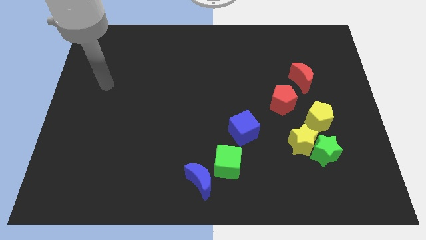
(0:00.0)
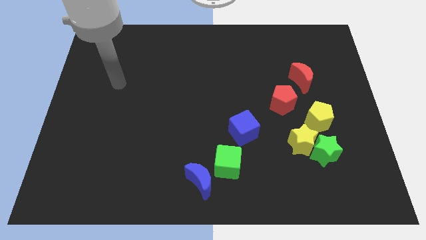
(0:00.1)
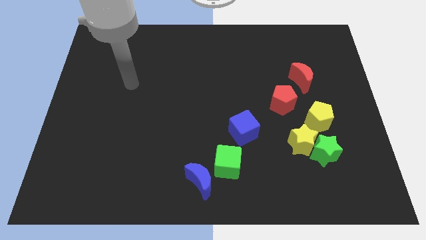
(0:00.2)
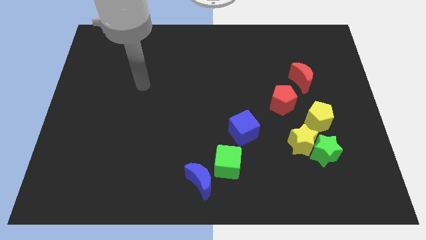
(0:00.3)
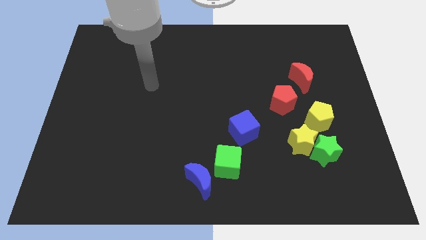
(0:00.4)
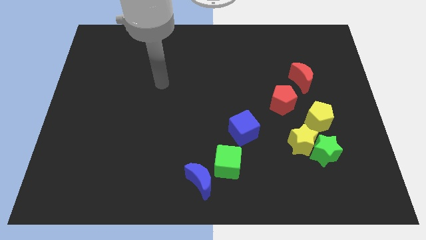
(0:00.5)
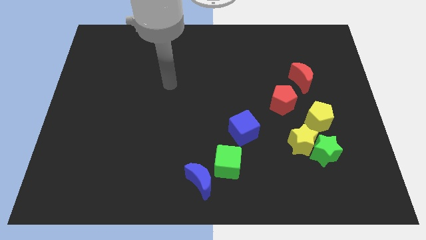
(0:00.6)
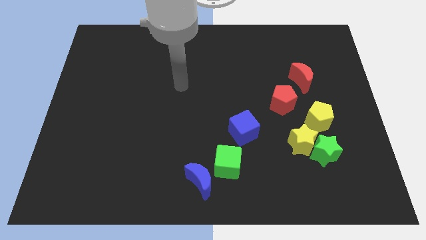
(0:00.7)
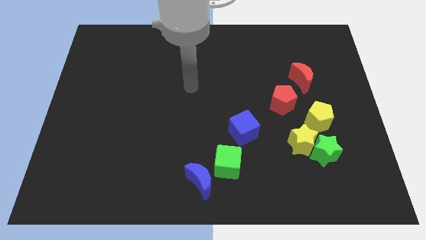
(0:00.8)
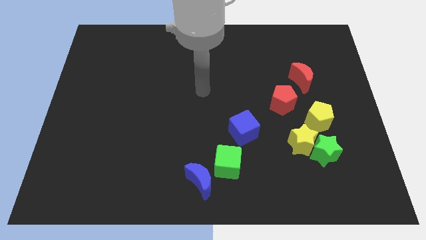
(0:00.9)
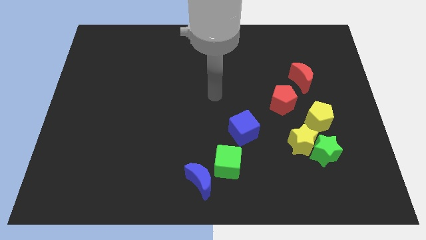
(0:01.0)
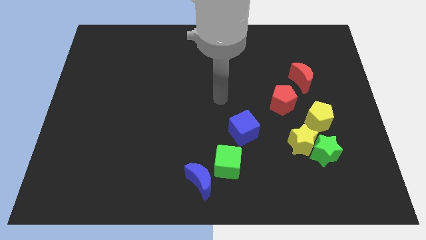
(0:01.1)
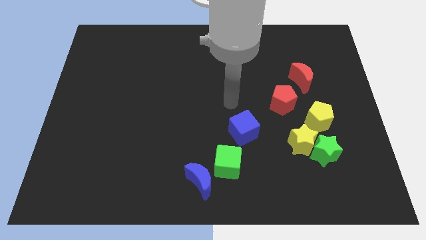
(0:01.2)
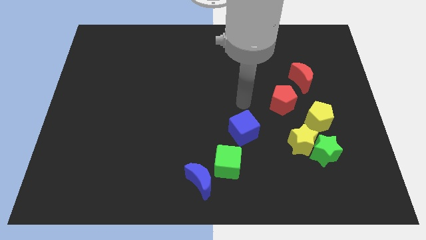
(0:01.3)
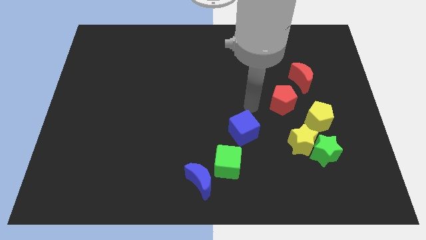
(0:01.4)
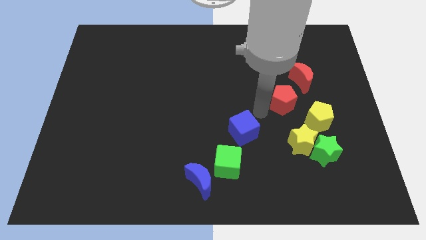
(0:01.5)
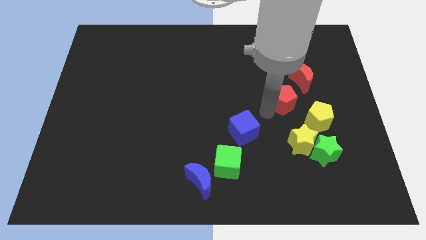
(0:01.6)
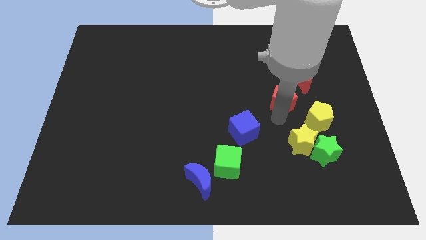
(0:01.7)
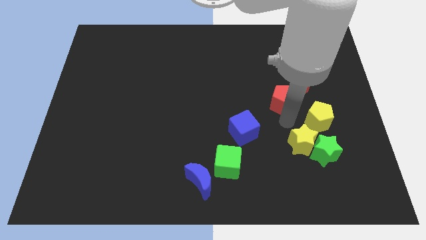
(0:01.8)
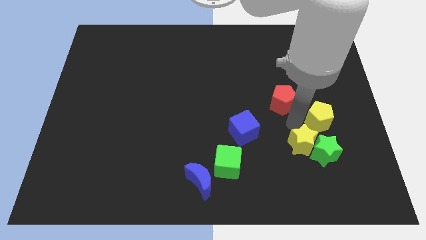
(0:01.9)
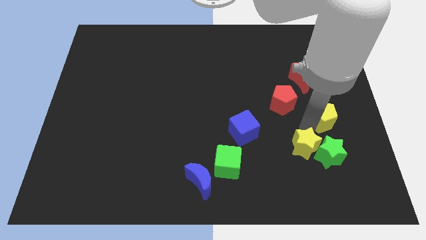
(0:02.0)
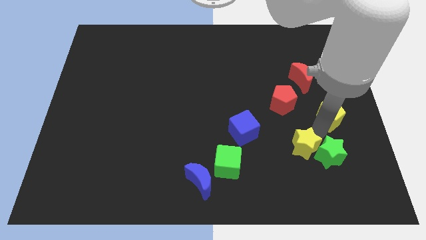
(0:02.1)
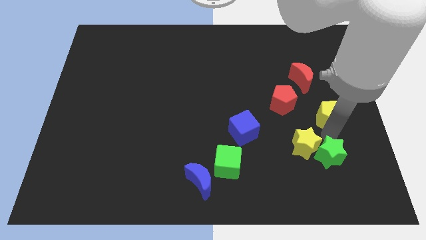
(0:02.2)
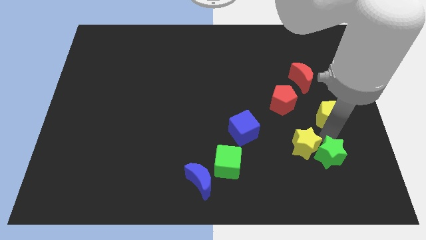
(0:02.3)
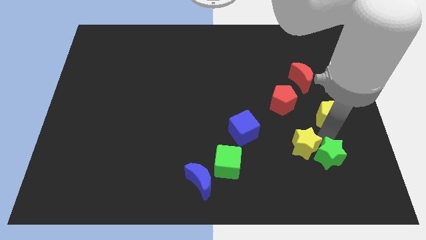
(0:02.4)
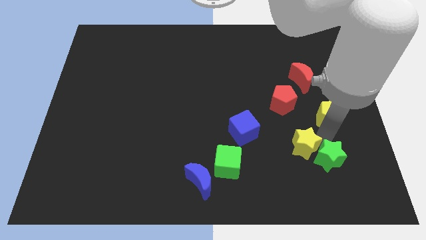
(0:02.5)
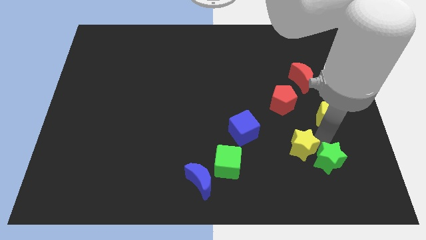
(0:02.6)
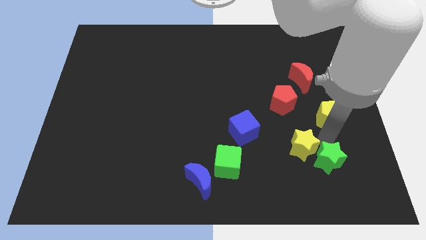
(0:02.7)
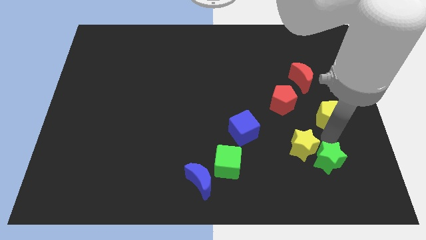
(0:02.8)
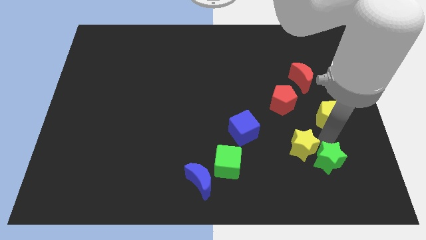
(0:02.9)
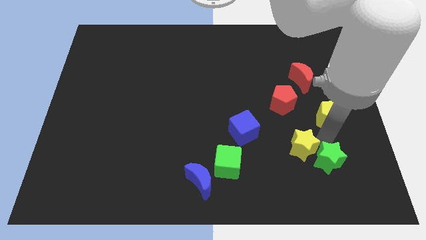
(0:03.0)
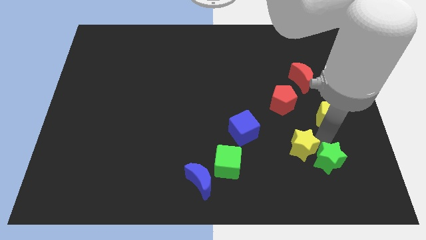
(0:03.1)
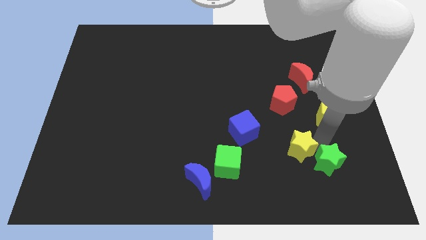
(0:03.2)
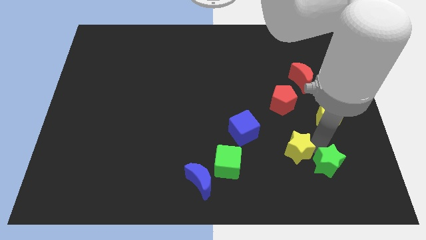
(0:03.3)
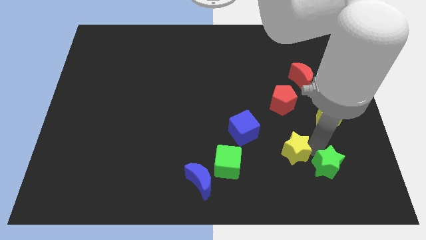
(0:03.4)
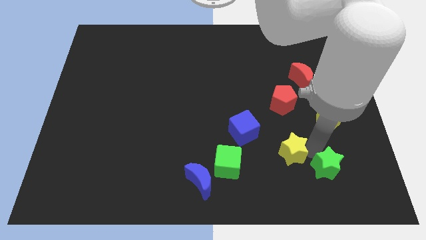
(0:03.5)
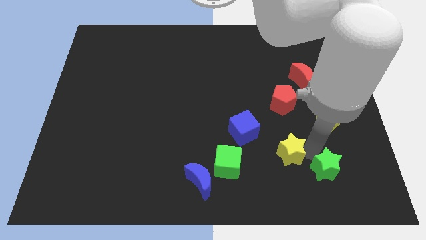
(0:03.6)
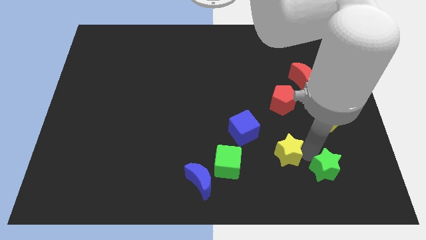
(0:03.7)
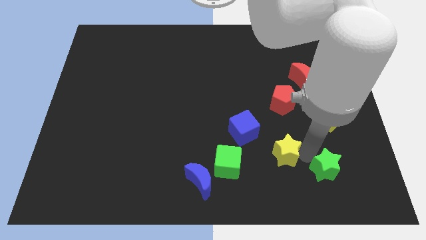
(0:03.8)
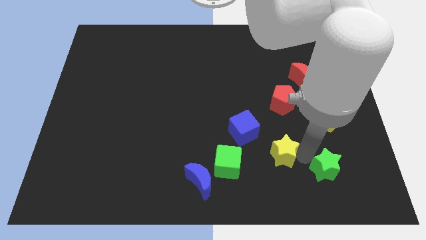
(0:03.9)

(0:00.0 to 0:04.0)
separate the yellow star from the green star and yellow pentagon

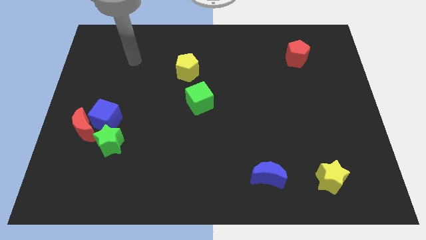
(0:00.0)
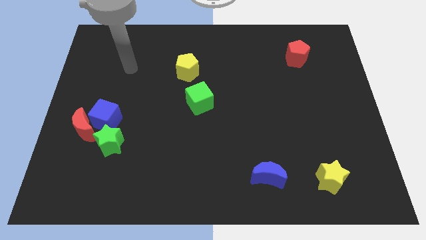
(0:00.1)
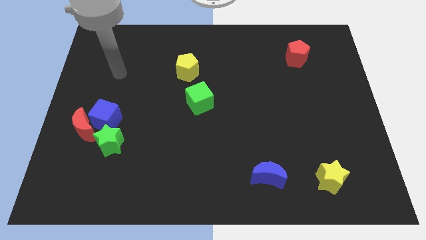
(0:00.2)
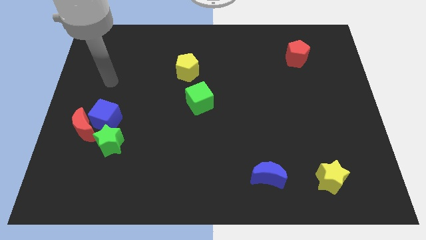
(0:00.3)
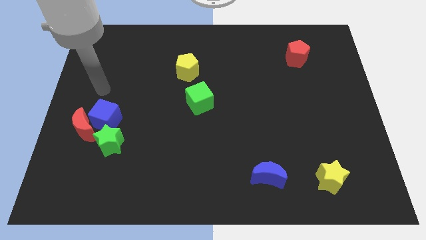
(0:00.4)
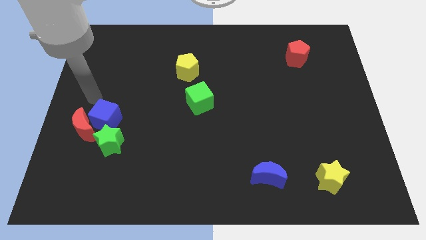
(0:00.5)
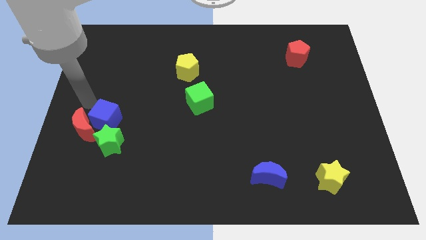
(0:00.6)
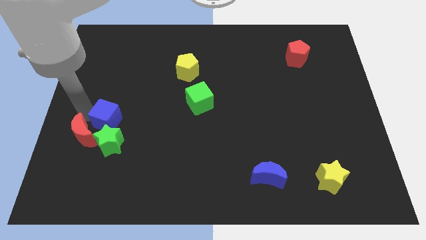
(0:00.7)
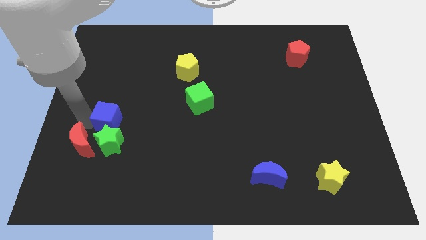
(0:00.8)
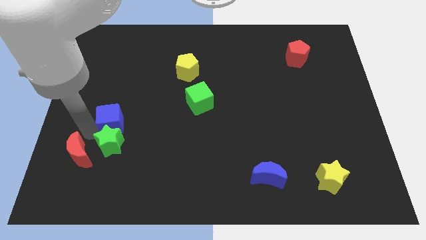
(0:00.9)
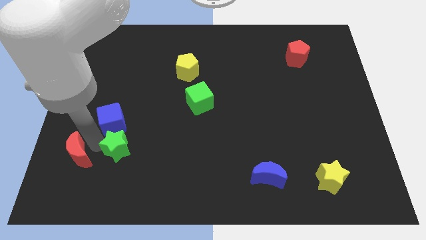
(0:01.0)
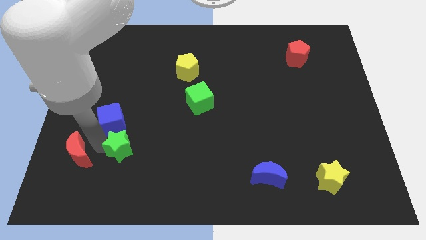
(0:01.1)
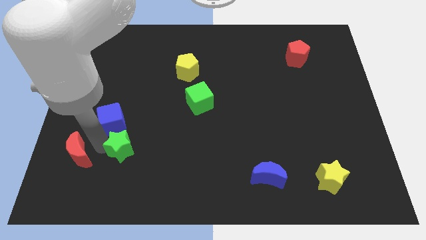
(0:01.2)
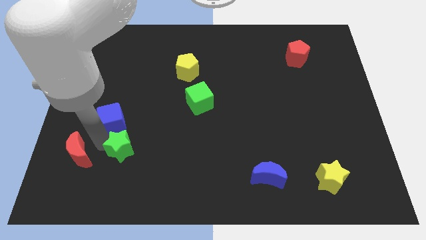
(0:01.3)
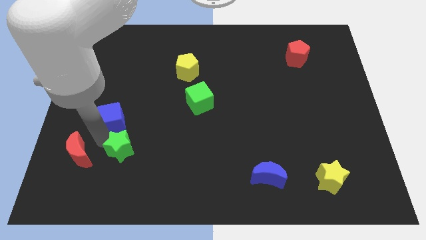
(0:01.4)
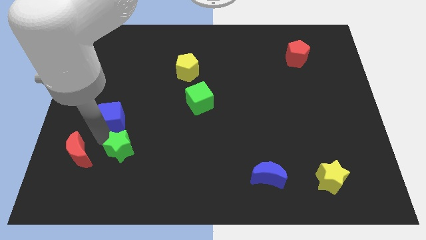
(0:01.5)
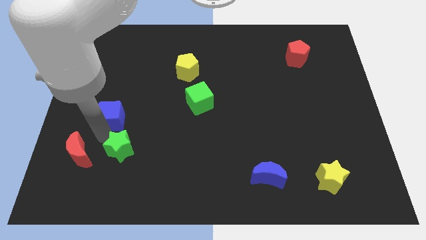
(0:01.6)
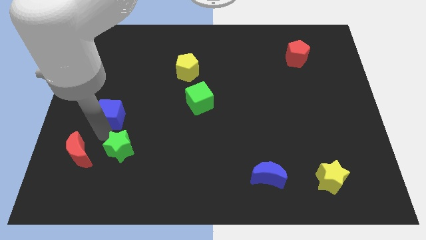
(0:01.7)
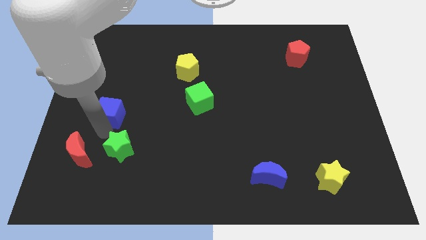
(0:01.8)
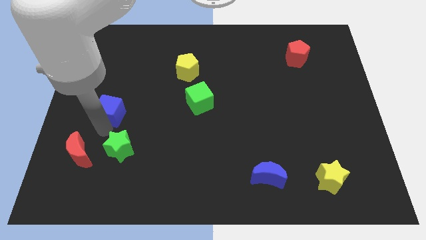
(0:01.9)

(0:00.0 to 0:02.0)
pull the blue cube apart from the red moon and green star

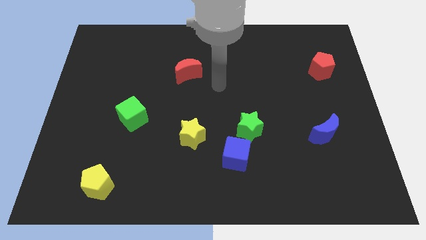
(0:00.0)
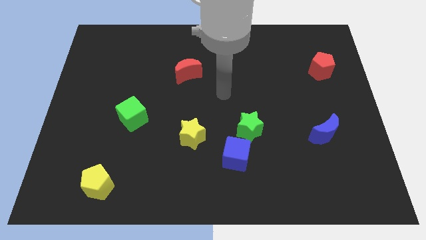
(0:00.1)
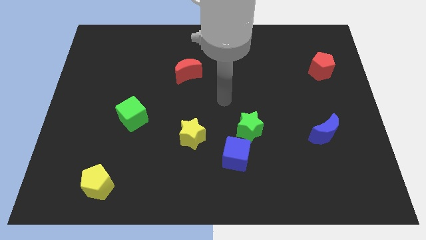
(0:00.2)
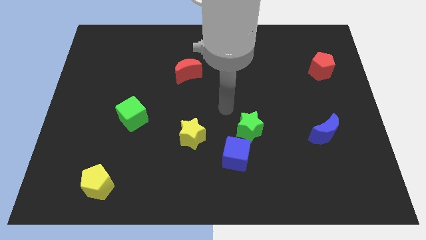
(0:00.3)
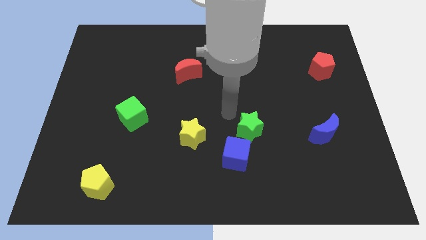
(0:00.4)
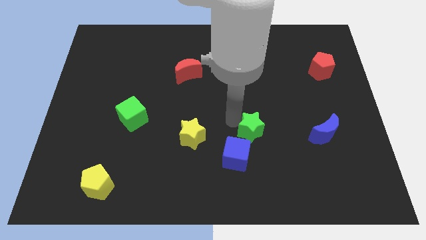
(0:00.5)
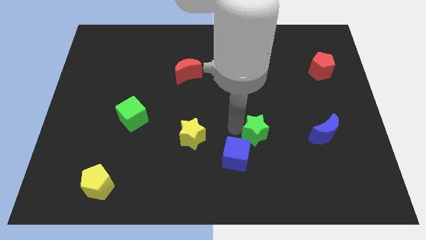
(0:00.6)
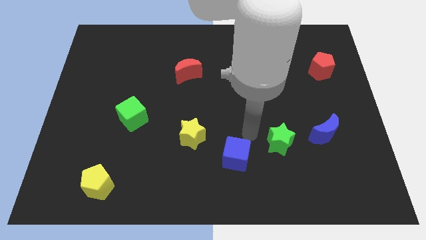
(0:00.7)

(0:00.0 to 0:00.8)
separate the blue cube from the green star

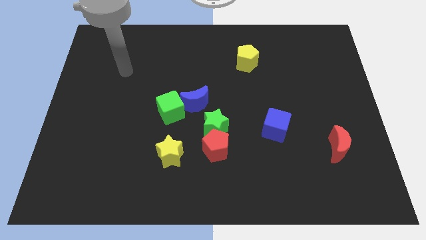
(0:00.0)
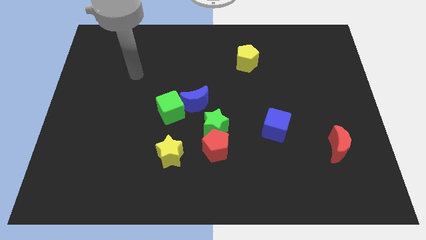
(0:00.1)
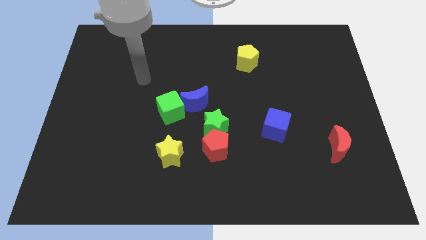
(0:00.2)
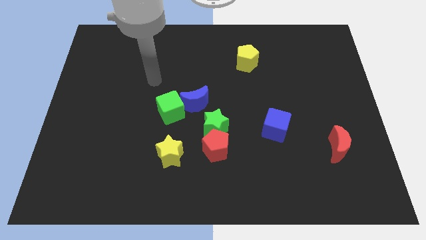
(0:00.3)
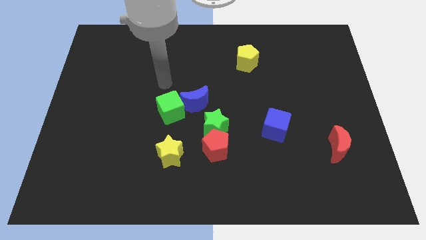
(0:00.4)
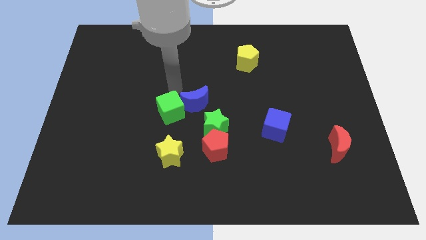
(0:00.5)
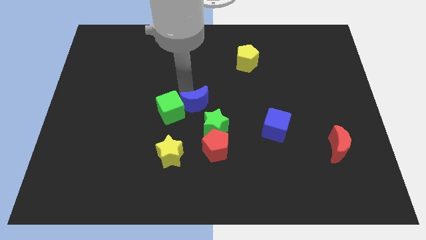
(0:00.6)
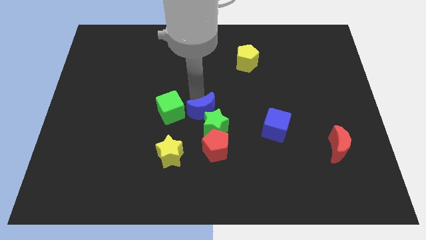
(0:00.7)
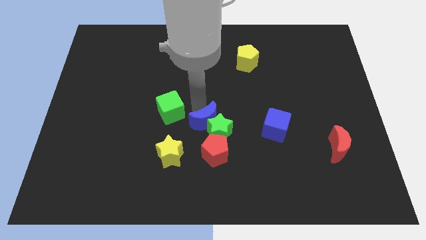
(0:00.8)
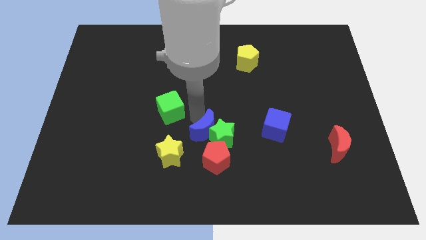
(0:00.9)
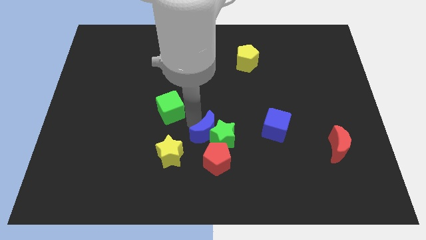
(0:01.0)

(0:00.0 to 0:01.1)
pull the green cube apart from the blue moon

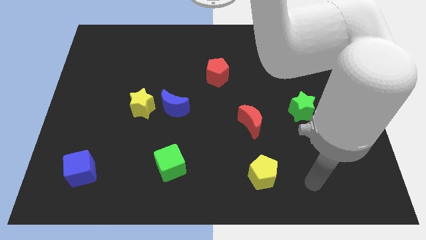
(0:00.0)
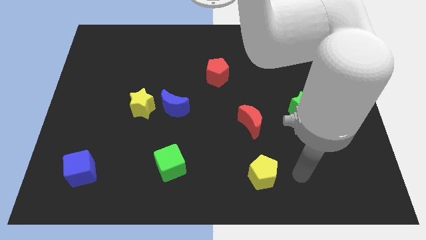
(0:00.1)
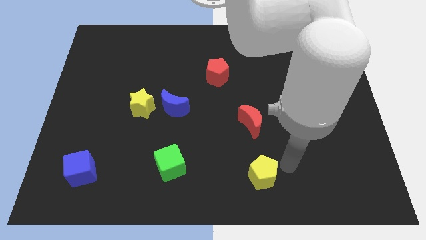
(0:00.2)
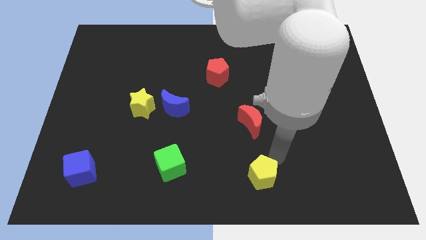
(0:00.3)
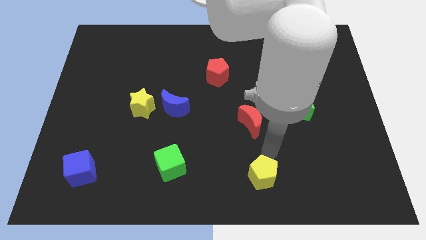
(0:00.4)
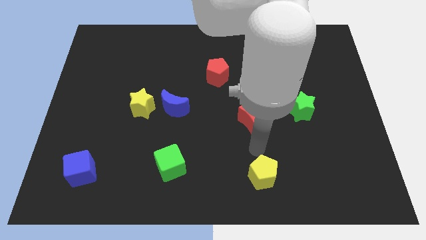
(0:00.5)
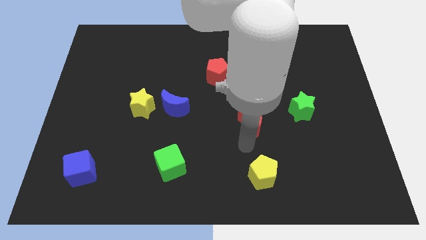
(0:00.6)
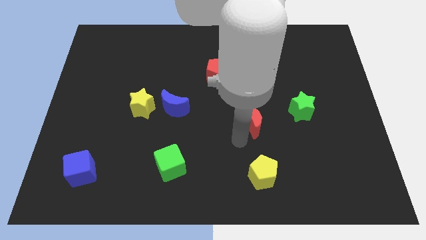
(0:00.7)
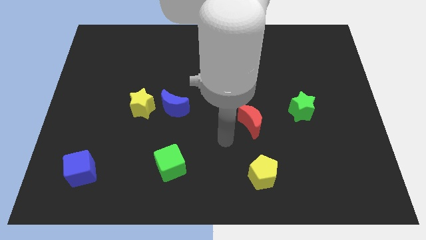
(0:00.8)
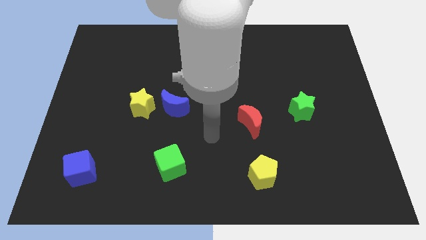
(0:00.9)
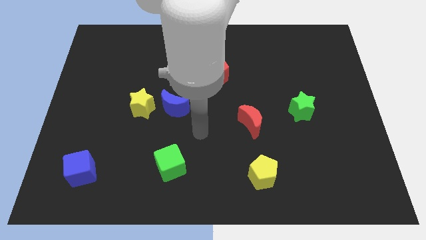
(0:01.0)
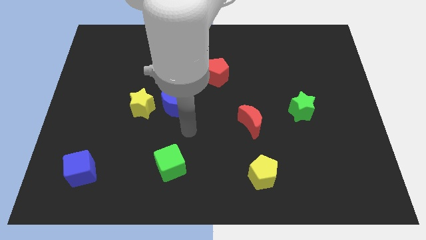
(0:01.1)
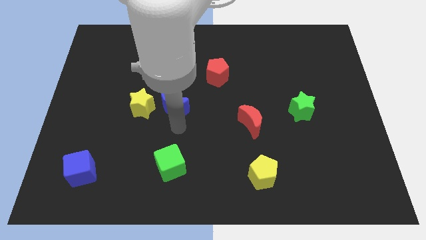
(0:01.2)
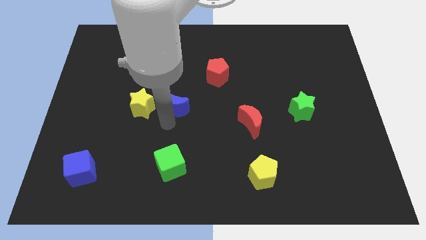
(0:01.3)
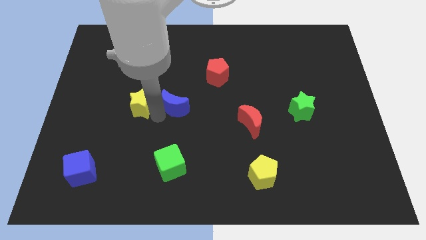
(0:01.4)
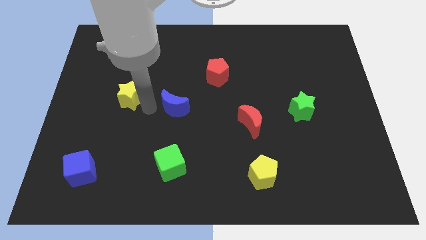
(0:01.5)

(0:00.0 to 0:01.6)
pull the blue moon apart from the yellow star
